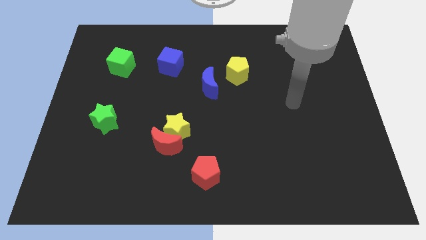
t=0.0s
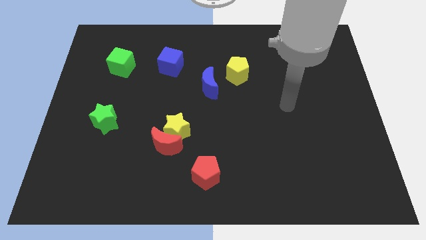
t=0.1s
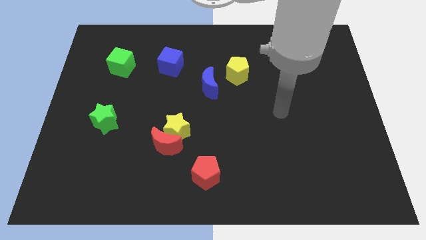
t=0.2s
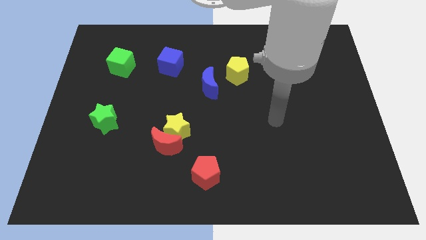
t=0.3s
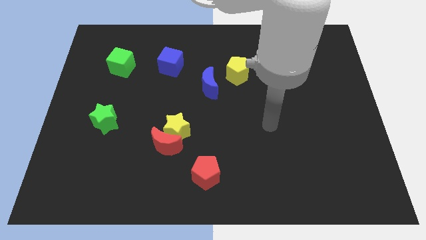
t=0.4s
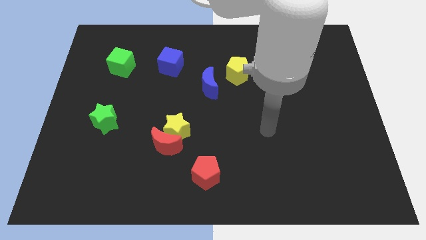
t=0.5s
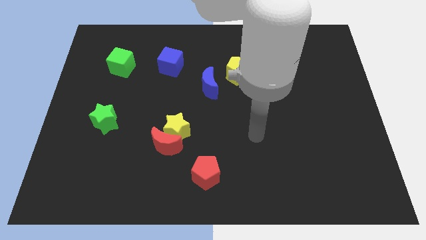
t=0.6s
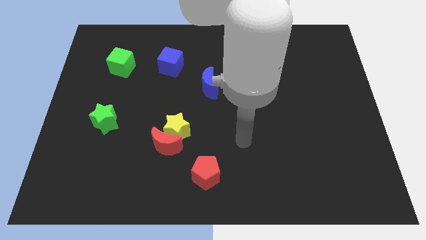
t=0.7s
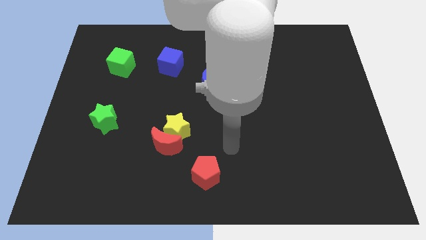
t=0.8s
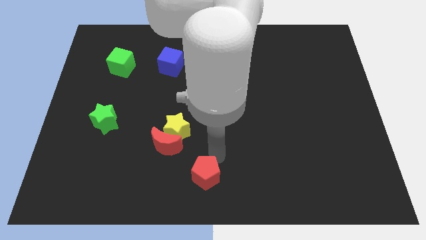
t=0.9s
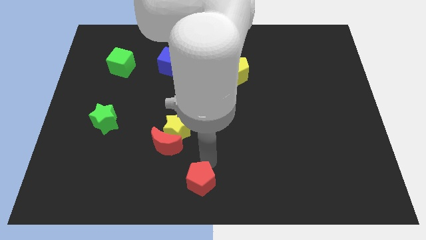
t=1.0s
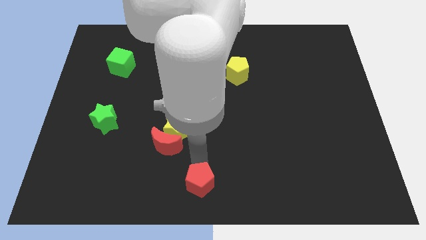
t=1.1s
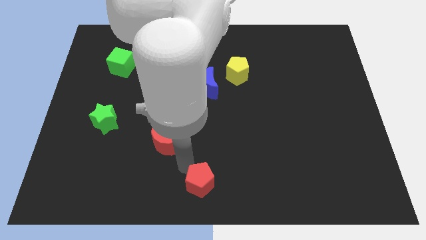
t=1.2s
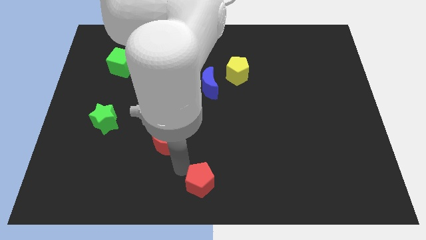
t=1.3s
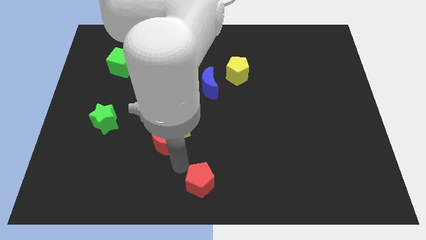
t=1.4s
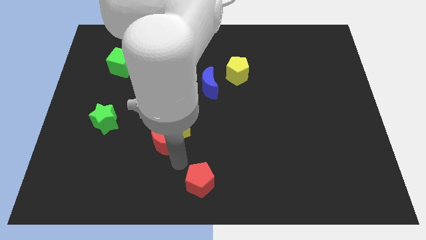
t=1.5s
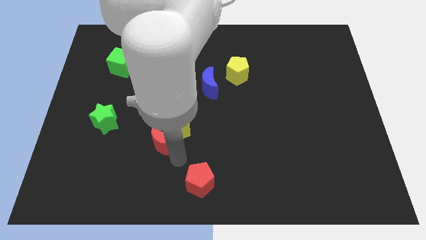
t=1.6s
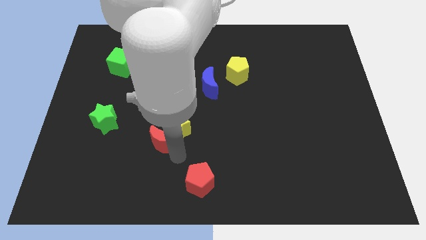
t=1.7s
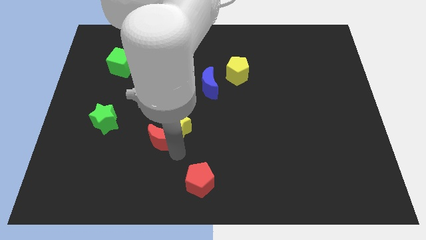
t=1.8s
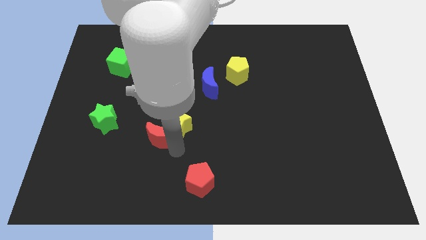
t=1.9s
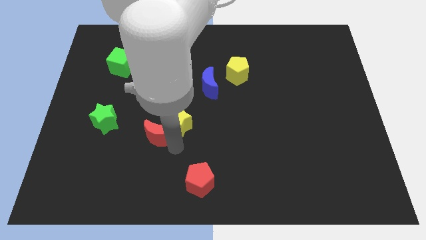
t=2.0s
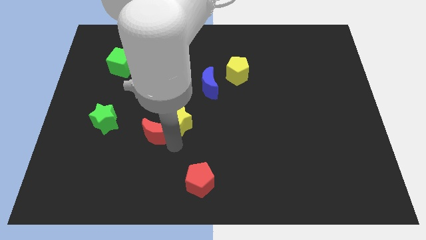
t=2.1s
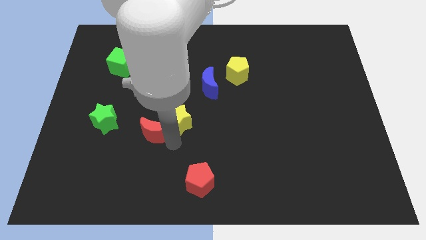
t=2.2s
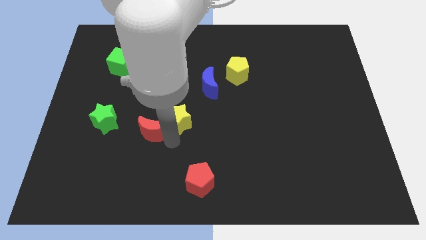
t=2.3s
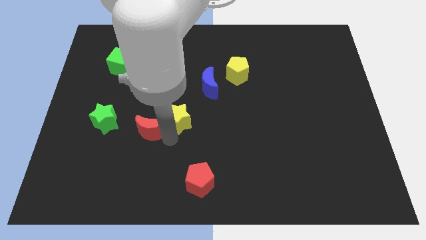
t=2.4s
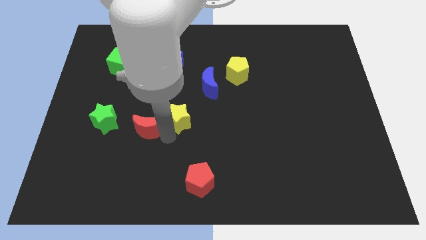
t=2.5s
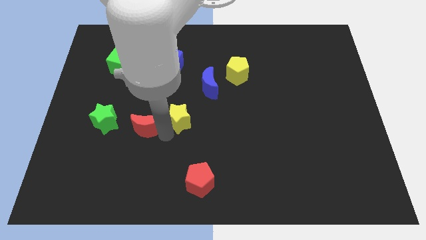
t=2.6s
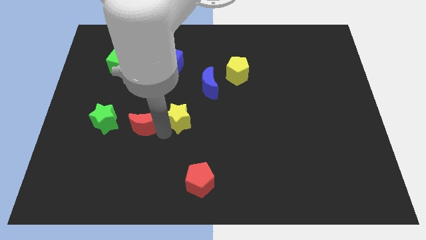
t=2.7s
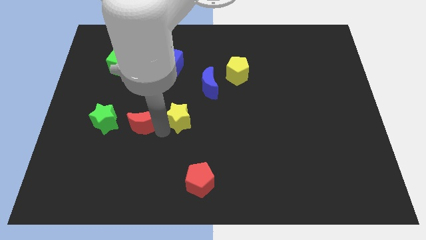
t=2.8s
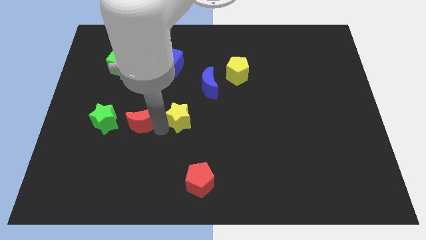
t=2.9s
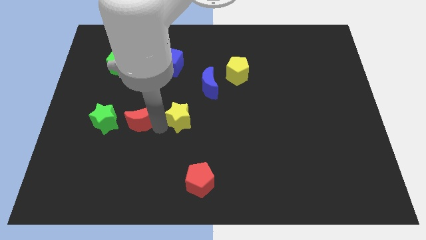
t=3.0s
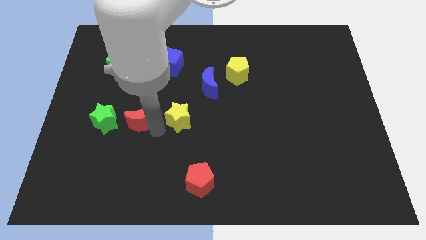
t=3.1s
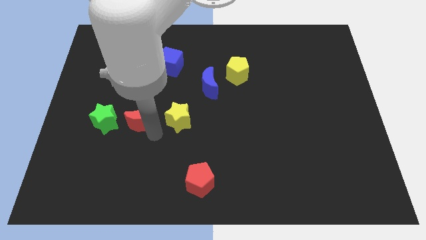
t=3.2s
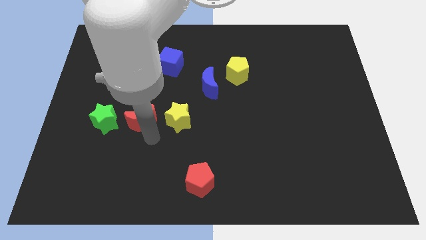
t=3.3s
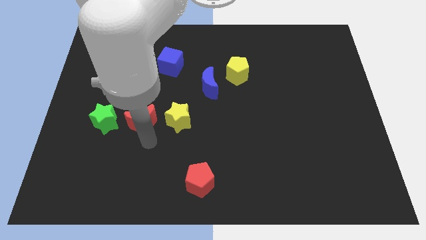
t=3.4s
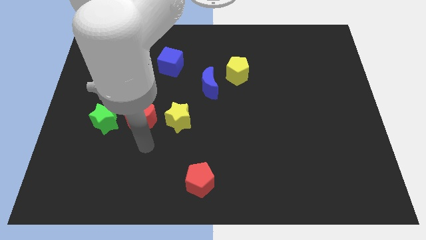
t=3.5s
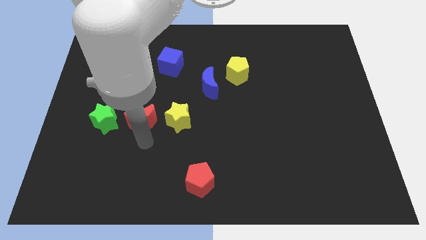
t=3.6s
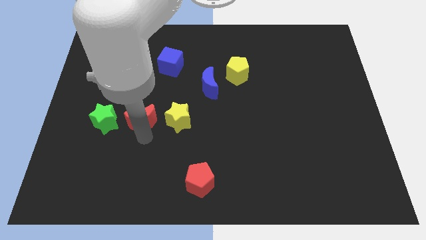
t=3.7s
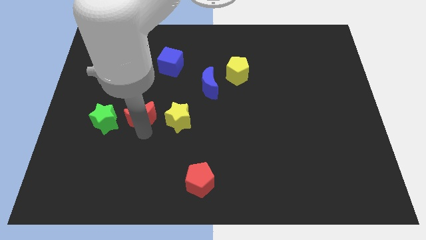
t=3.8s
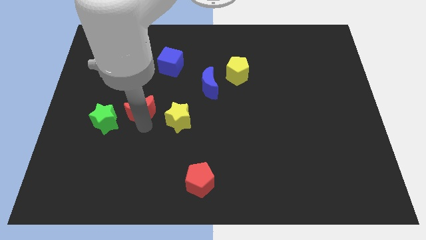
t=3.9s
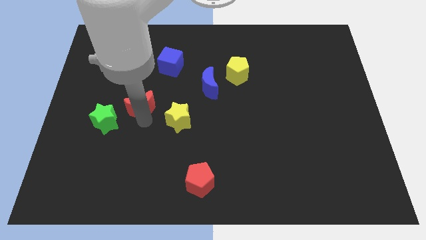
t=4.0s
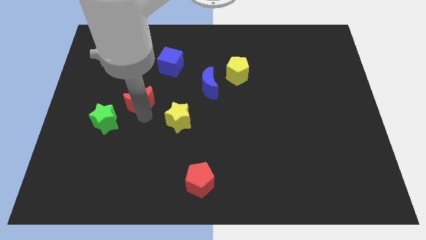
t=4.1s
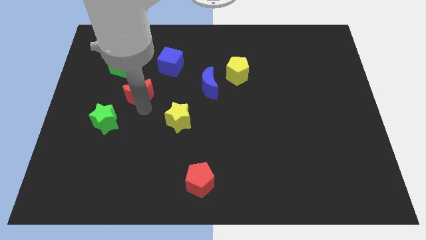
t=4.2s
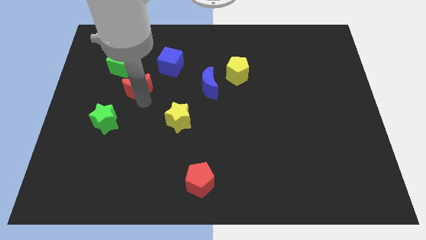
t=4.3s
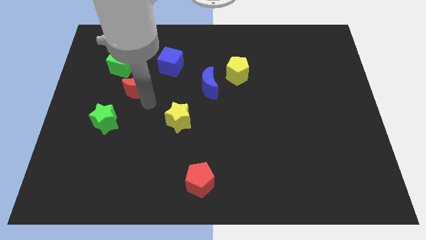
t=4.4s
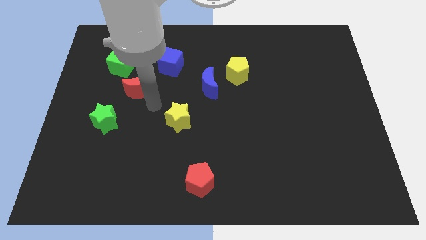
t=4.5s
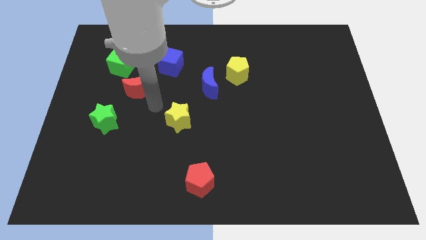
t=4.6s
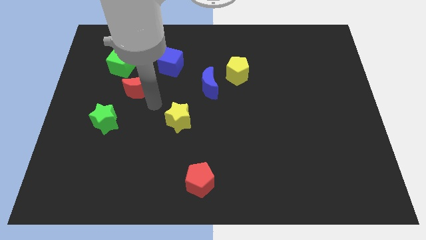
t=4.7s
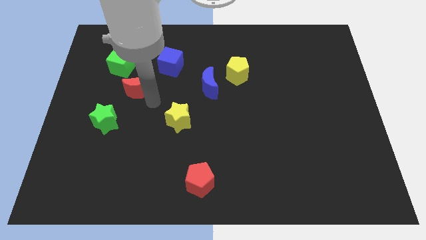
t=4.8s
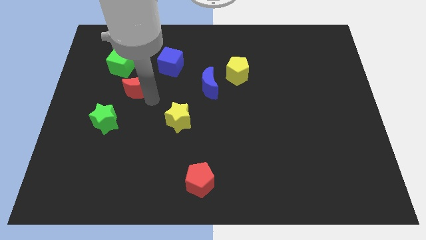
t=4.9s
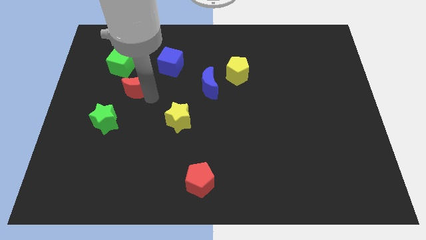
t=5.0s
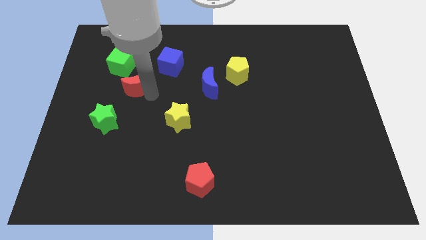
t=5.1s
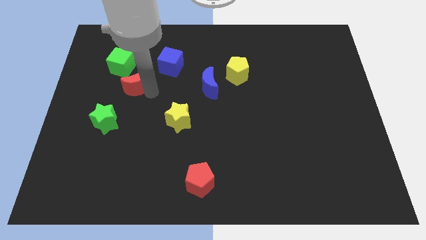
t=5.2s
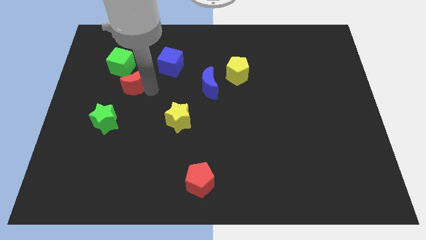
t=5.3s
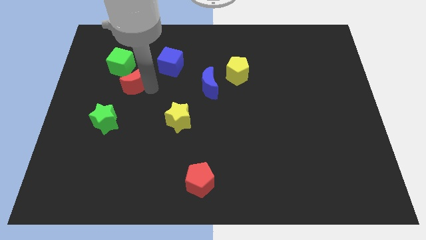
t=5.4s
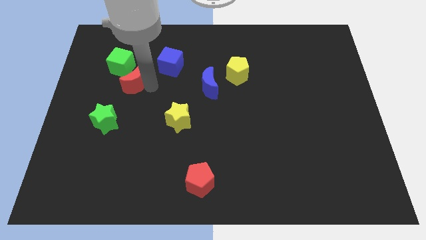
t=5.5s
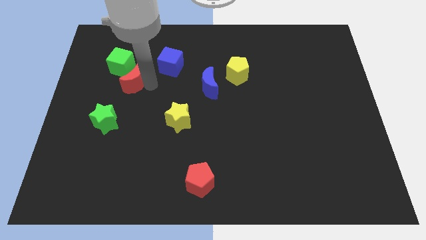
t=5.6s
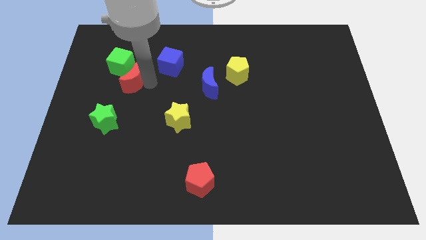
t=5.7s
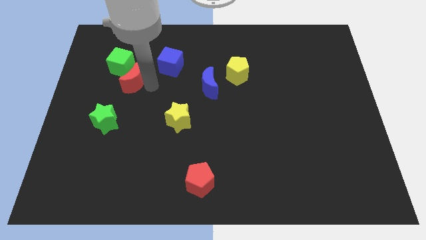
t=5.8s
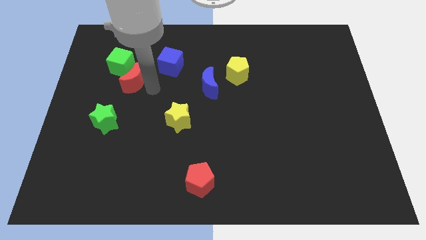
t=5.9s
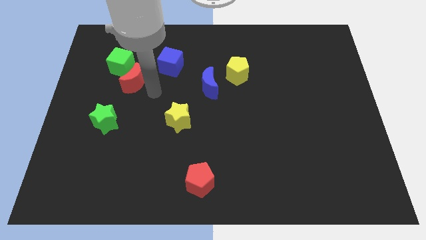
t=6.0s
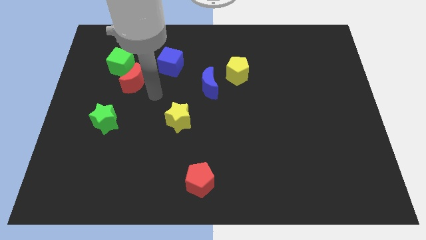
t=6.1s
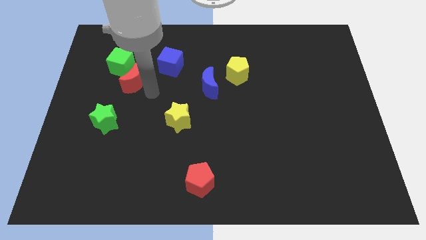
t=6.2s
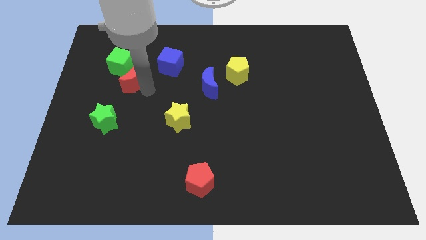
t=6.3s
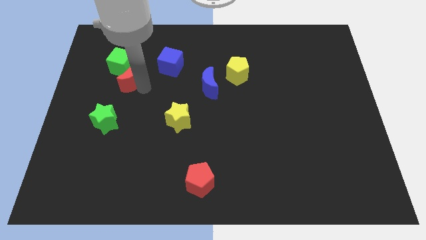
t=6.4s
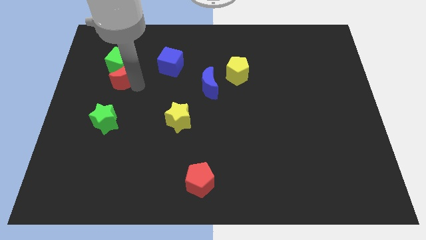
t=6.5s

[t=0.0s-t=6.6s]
slide the red moon to the green cube

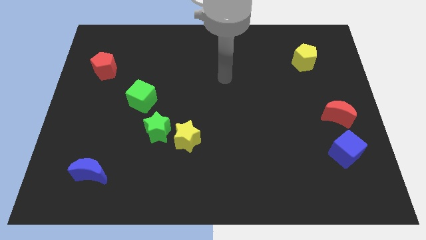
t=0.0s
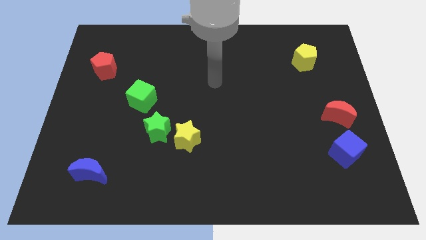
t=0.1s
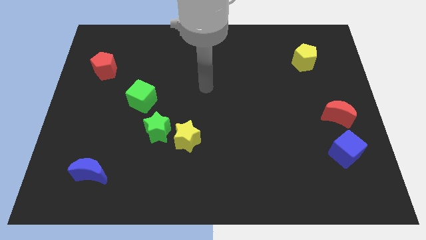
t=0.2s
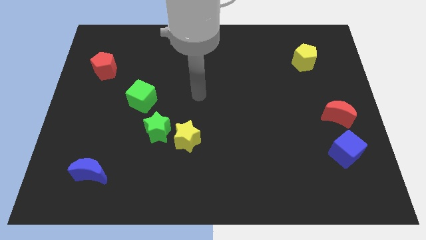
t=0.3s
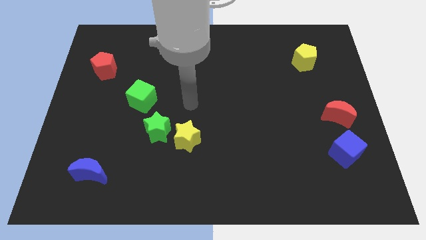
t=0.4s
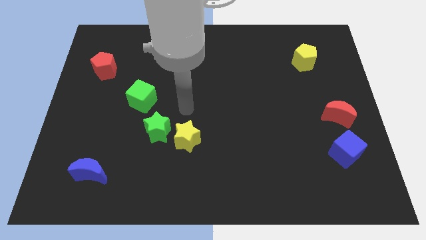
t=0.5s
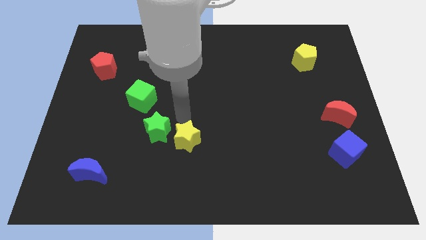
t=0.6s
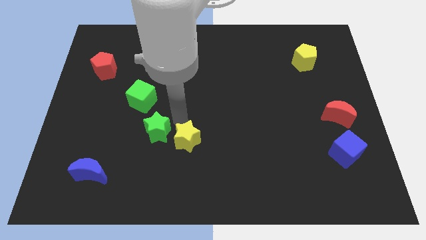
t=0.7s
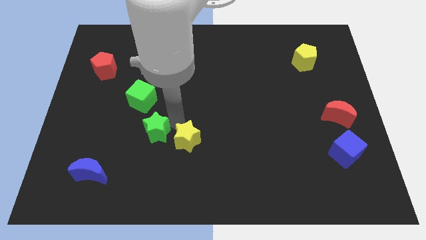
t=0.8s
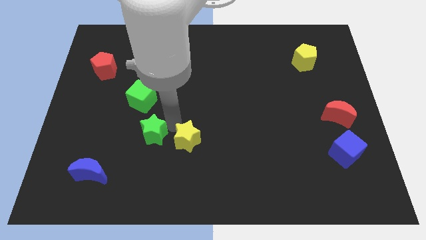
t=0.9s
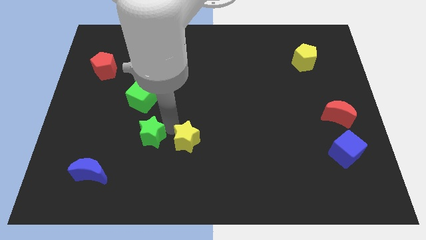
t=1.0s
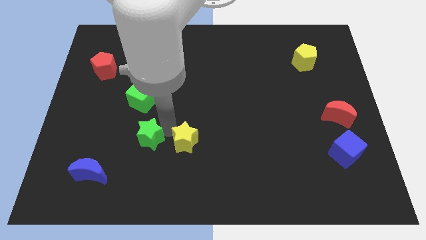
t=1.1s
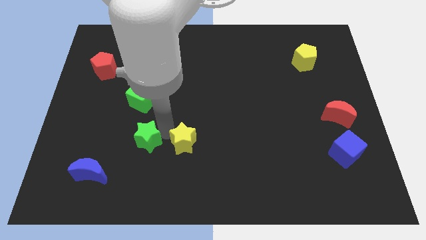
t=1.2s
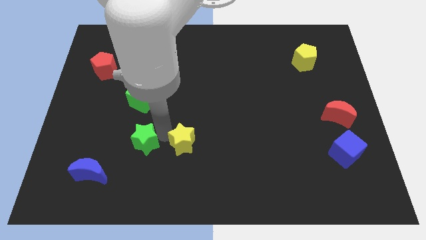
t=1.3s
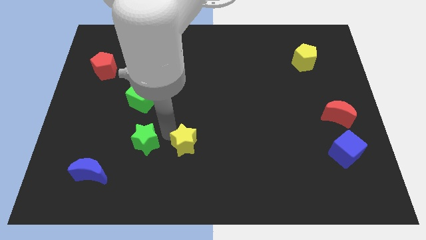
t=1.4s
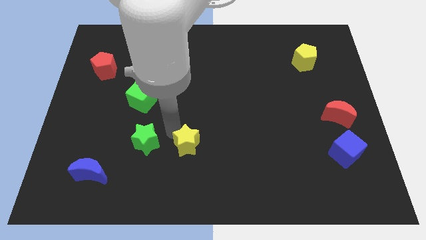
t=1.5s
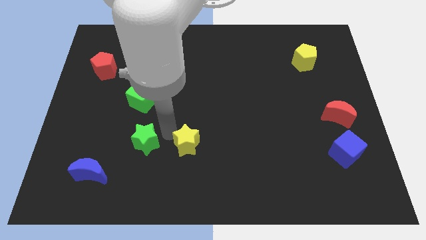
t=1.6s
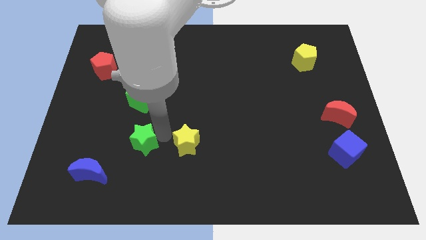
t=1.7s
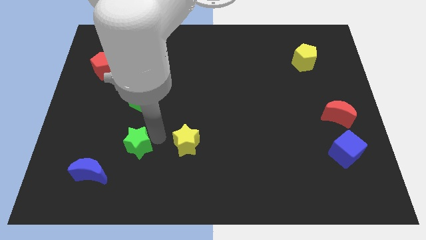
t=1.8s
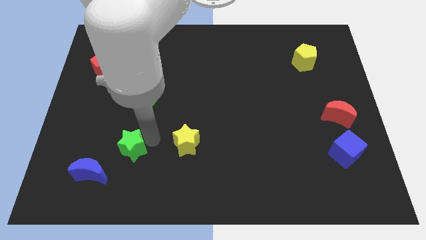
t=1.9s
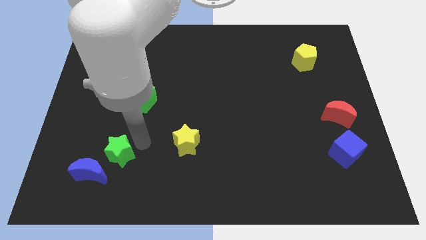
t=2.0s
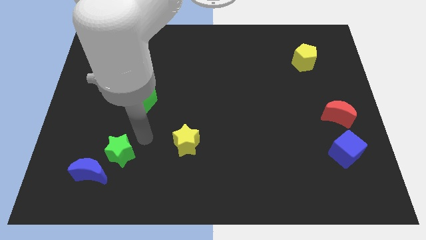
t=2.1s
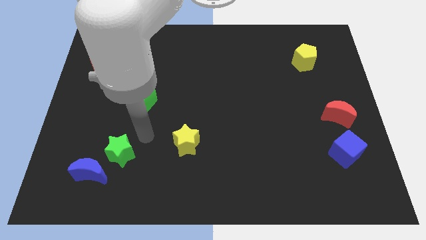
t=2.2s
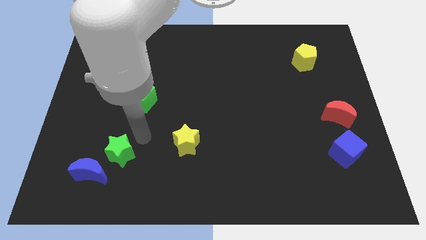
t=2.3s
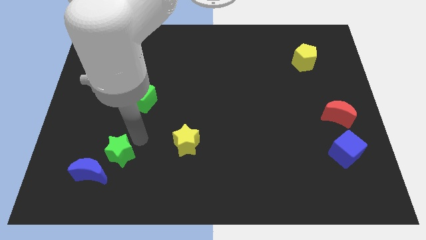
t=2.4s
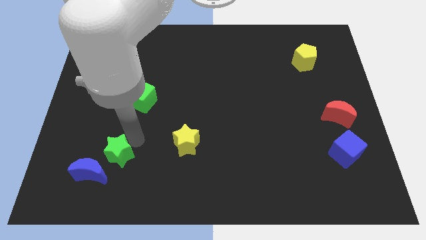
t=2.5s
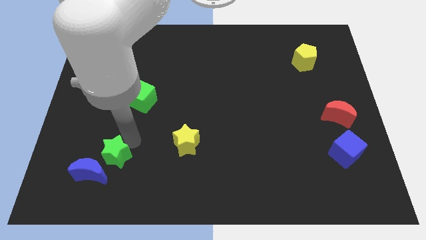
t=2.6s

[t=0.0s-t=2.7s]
push the green star close to the blue moon
